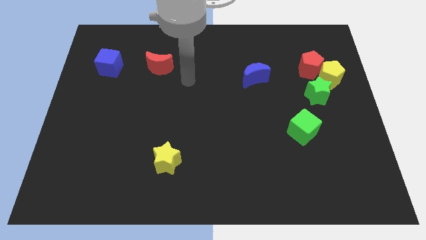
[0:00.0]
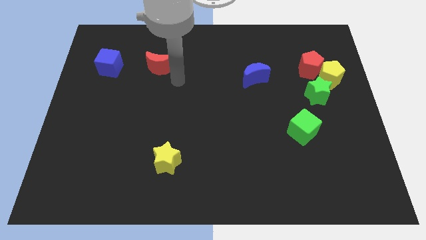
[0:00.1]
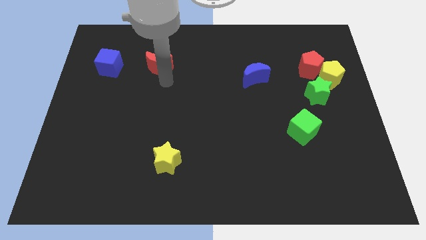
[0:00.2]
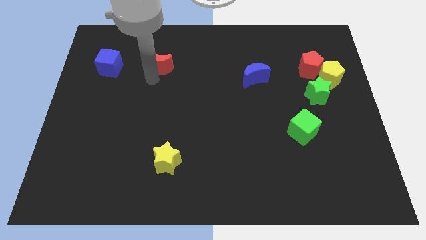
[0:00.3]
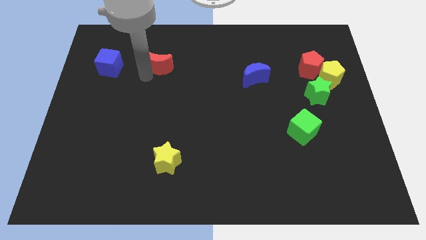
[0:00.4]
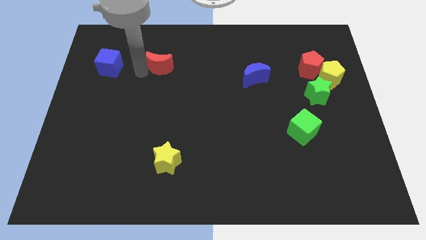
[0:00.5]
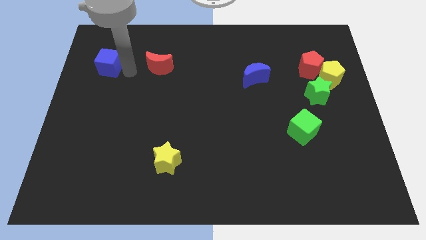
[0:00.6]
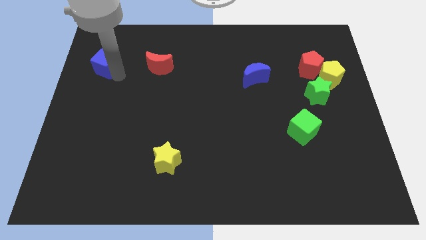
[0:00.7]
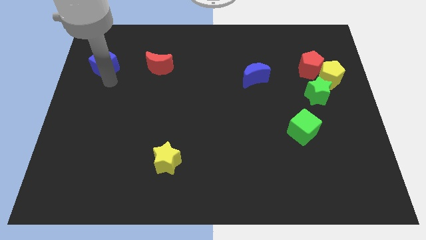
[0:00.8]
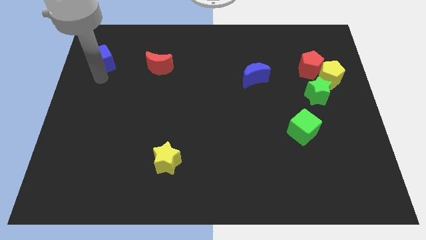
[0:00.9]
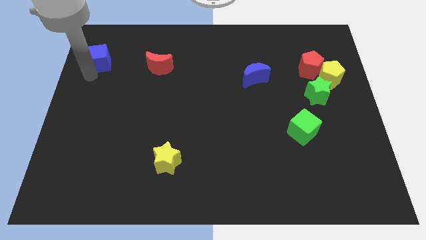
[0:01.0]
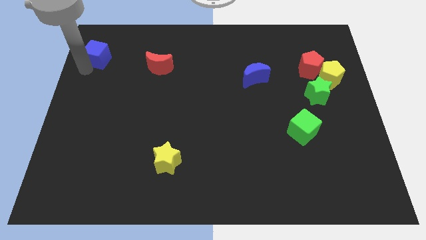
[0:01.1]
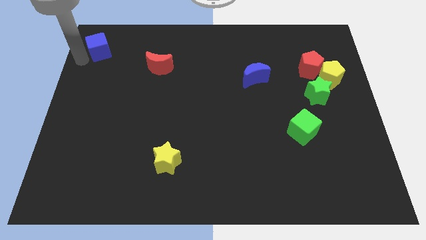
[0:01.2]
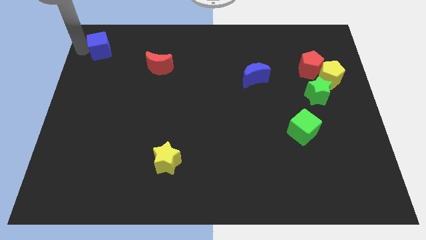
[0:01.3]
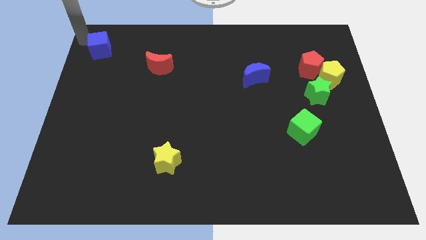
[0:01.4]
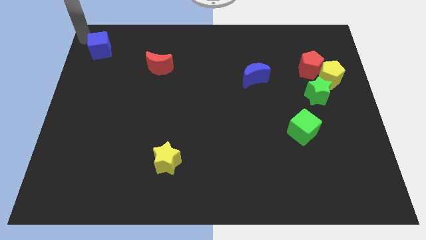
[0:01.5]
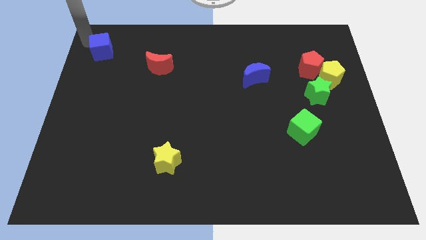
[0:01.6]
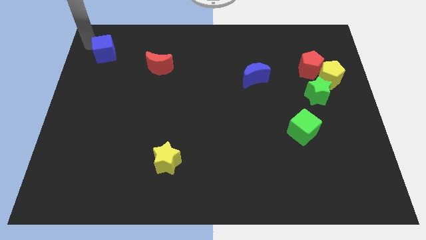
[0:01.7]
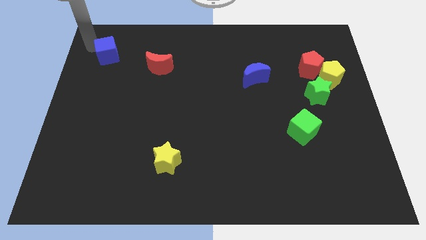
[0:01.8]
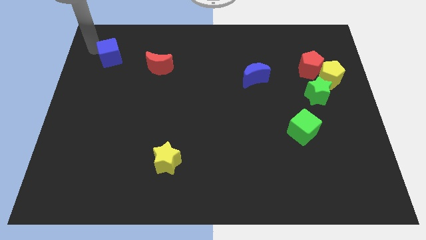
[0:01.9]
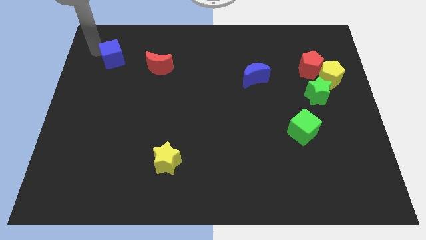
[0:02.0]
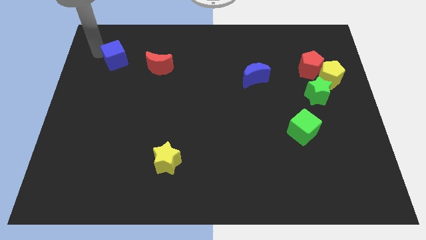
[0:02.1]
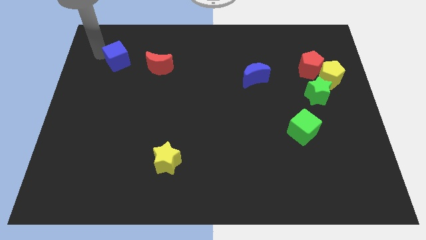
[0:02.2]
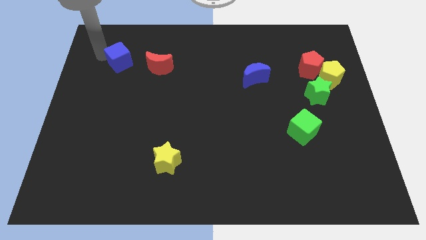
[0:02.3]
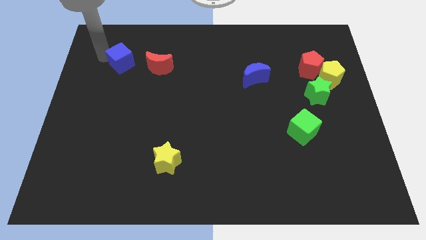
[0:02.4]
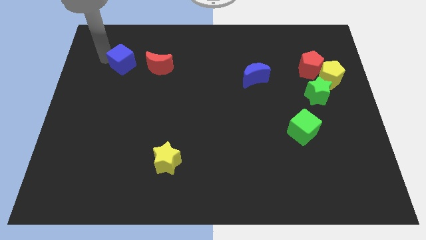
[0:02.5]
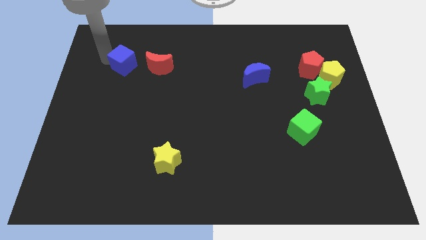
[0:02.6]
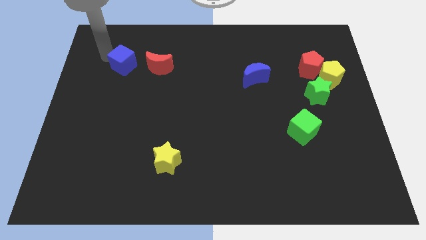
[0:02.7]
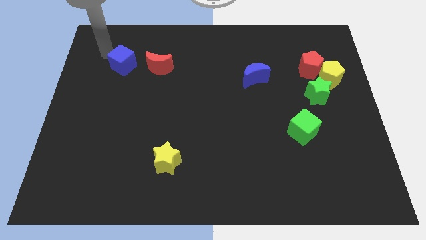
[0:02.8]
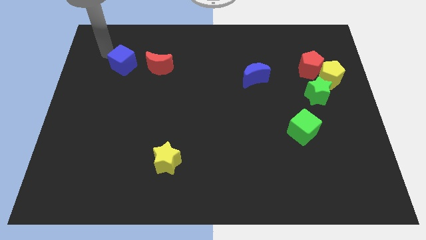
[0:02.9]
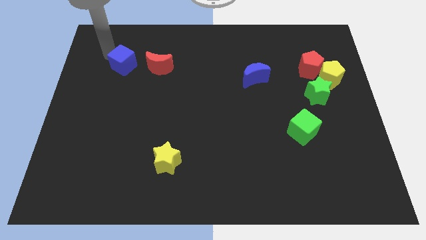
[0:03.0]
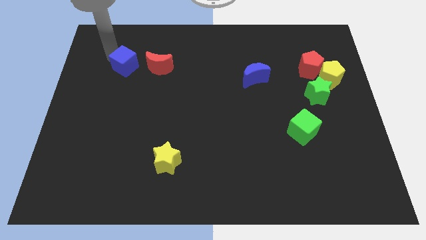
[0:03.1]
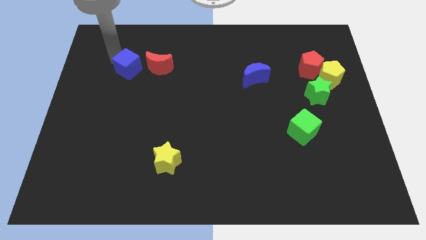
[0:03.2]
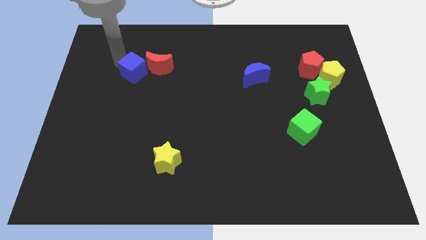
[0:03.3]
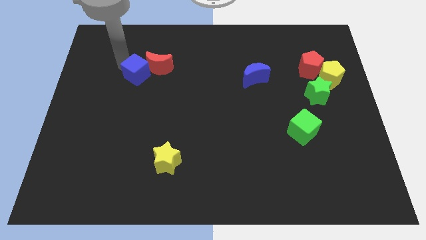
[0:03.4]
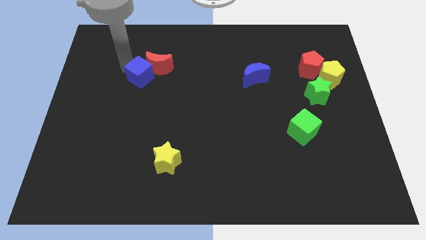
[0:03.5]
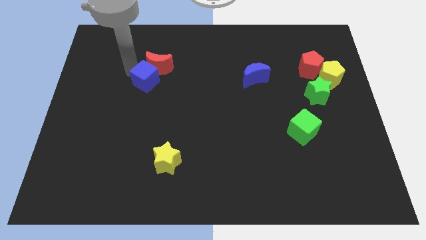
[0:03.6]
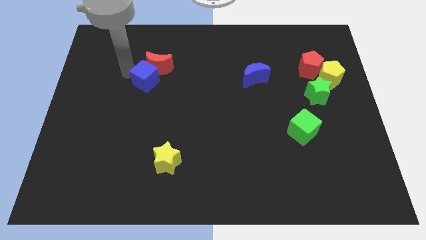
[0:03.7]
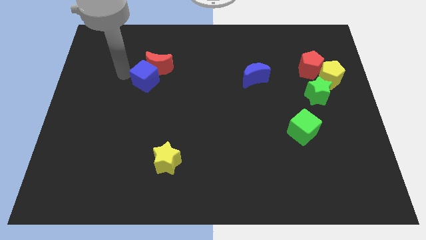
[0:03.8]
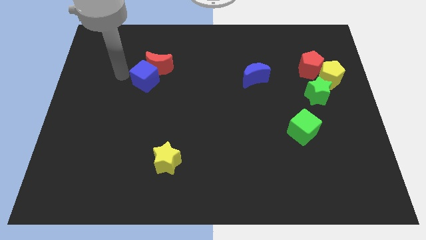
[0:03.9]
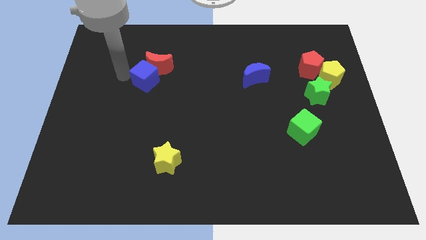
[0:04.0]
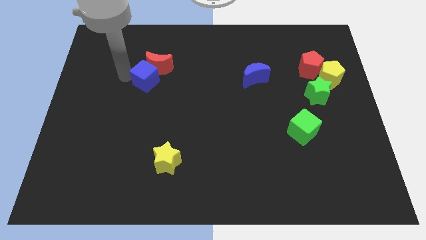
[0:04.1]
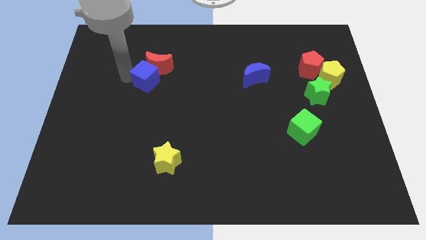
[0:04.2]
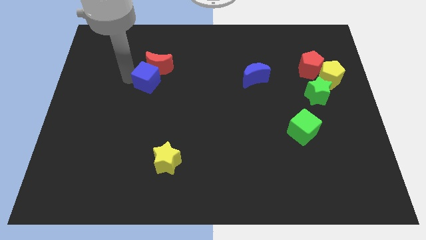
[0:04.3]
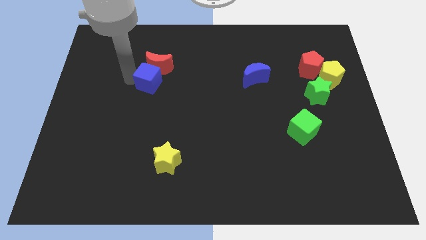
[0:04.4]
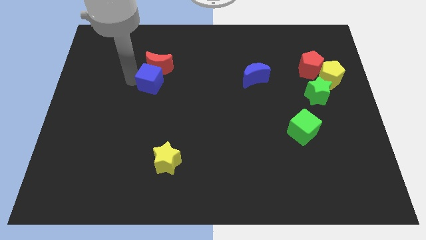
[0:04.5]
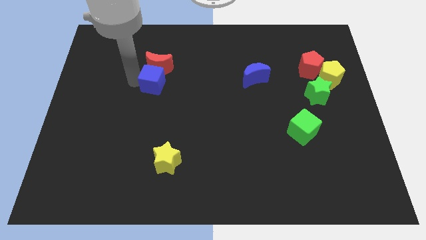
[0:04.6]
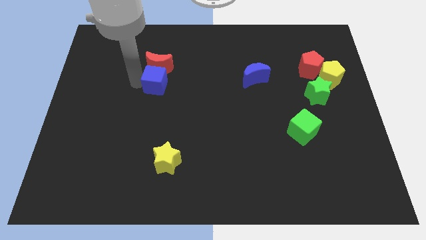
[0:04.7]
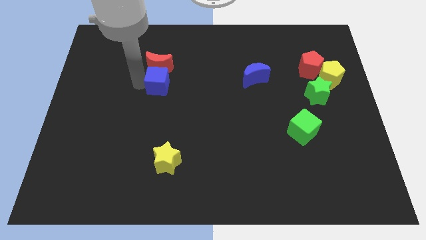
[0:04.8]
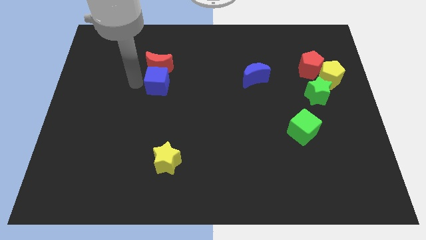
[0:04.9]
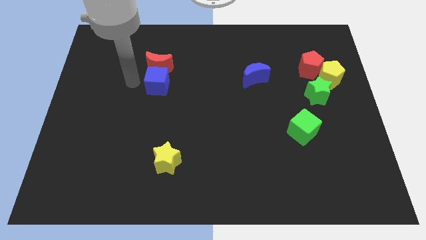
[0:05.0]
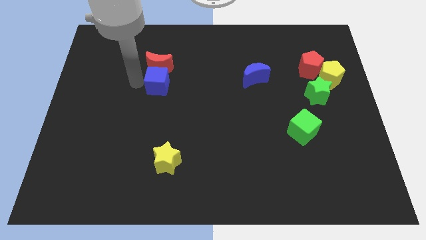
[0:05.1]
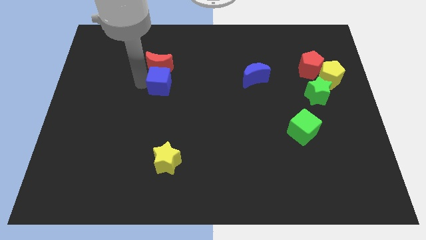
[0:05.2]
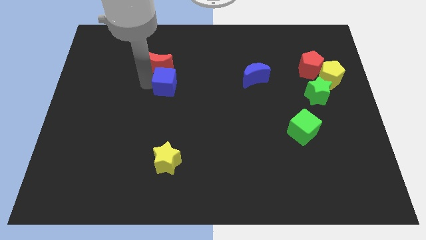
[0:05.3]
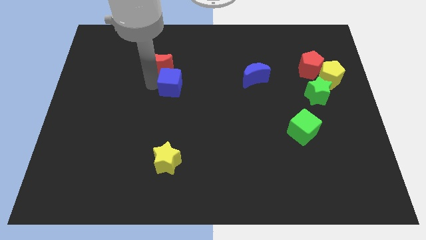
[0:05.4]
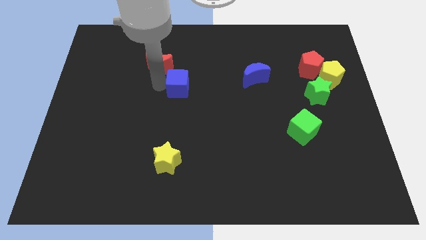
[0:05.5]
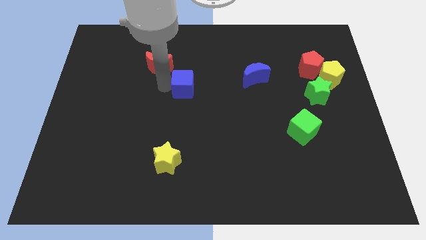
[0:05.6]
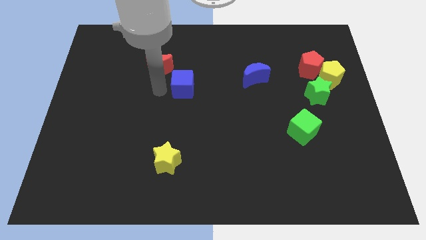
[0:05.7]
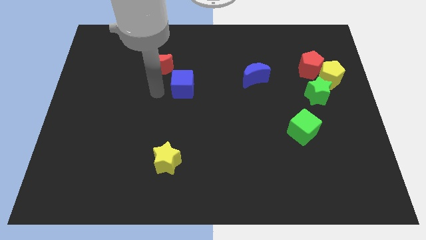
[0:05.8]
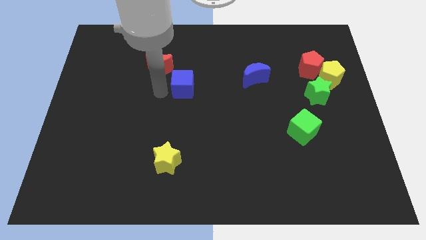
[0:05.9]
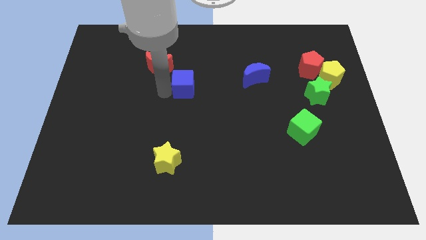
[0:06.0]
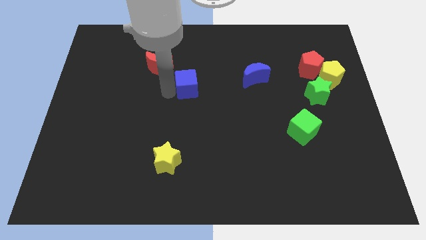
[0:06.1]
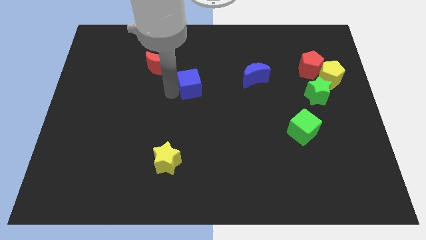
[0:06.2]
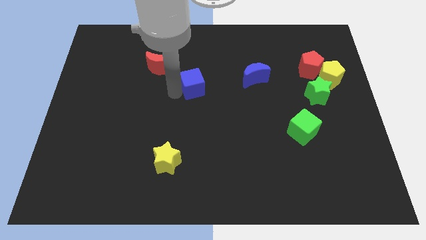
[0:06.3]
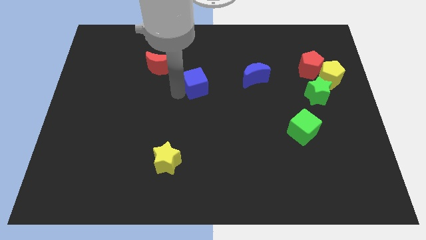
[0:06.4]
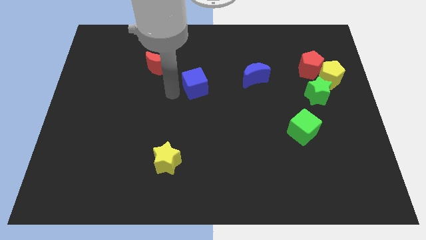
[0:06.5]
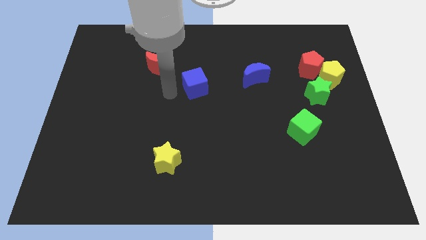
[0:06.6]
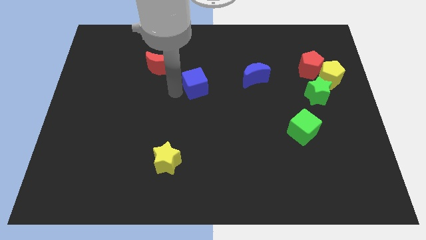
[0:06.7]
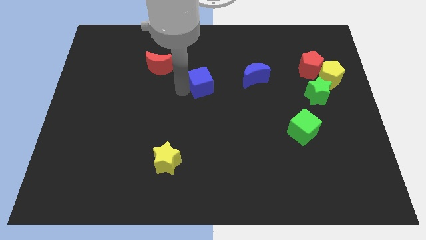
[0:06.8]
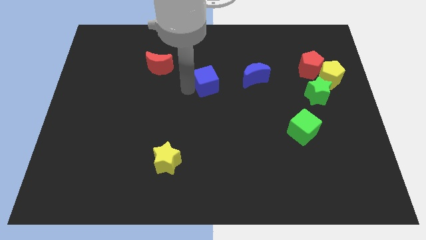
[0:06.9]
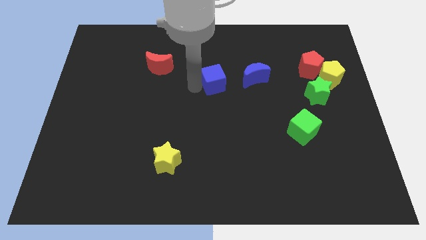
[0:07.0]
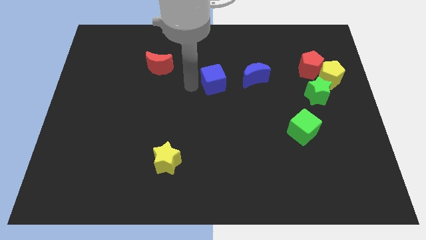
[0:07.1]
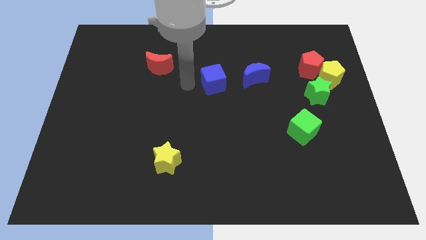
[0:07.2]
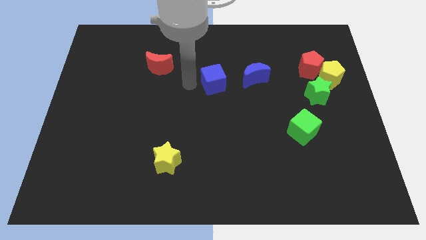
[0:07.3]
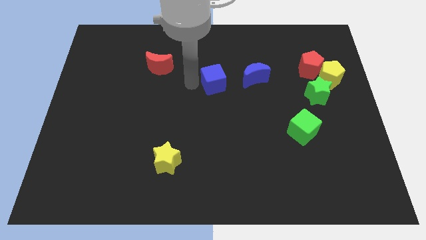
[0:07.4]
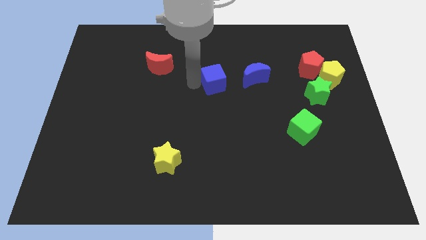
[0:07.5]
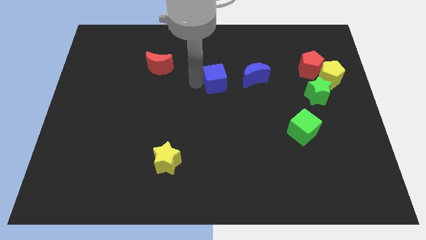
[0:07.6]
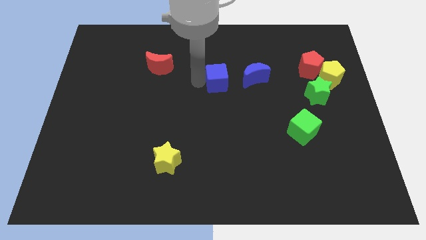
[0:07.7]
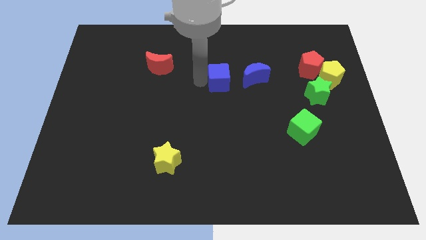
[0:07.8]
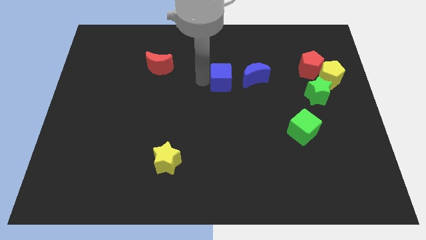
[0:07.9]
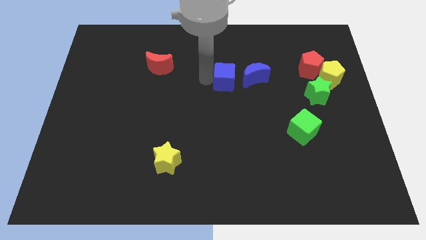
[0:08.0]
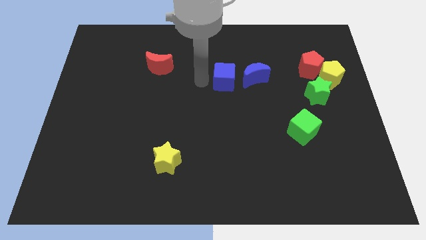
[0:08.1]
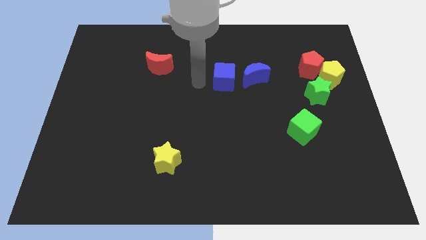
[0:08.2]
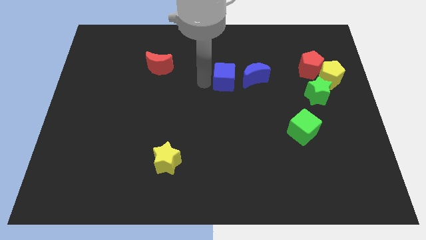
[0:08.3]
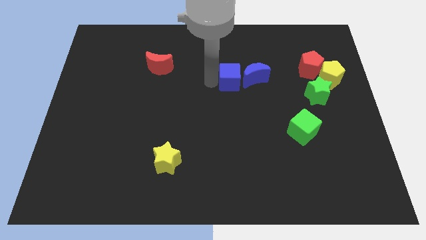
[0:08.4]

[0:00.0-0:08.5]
push the blue cube to the blue moon
